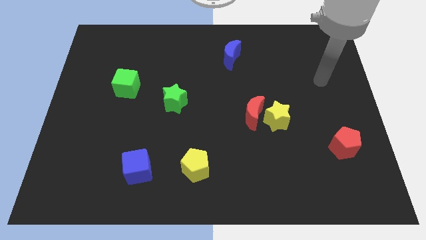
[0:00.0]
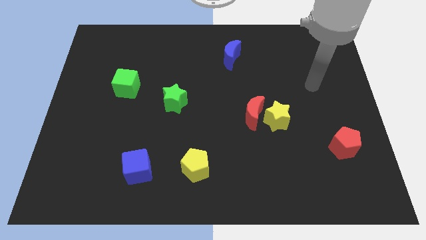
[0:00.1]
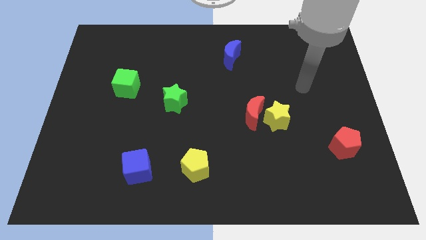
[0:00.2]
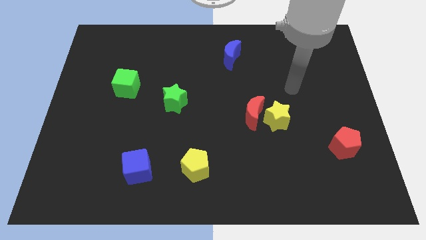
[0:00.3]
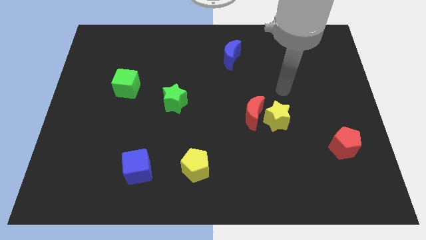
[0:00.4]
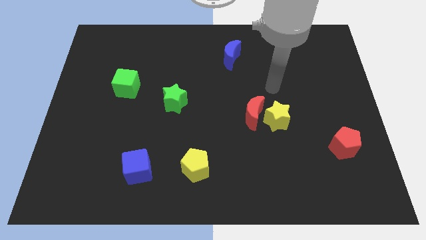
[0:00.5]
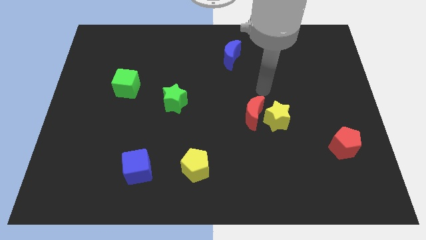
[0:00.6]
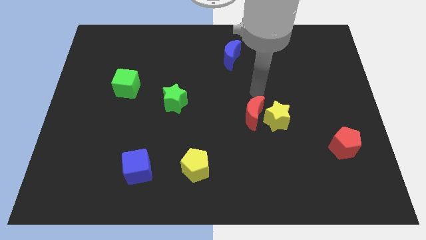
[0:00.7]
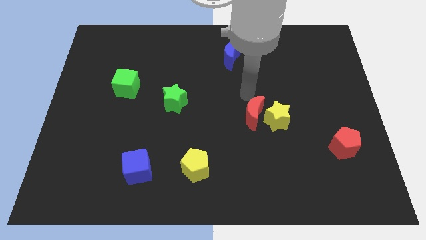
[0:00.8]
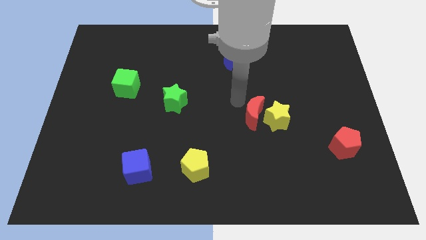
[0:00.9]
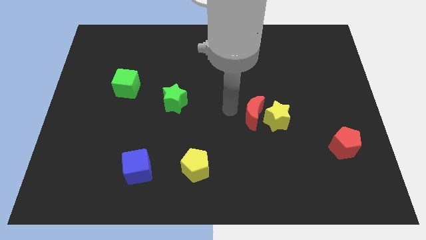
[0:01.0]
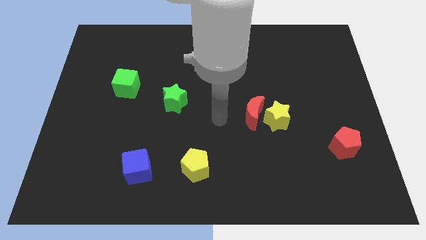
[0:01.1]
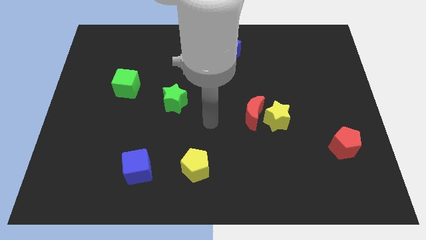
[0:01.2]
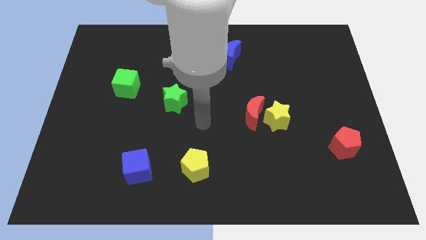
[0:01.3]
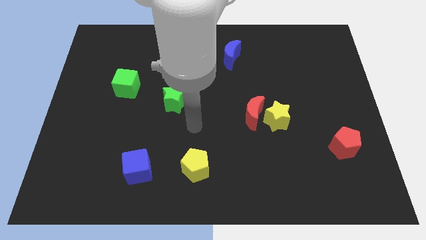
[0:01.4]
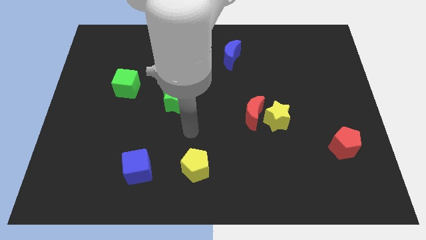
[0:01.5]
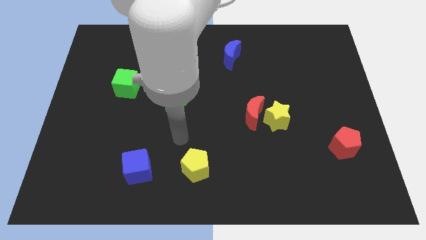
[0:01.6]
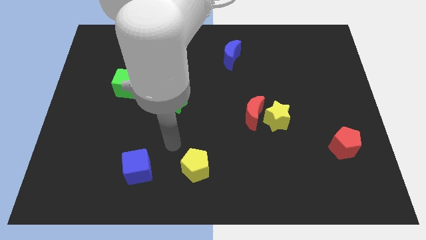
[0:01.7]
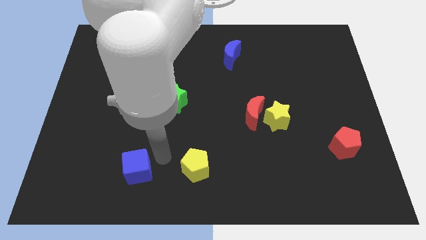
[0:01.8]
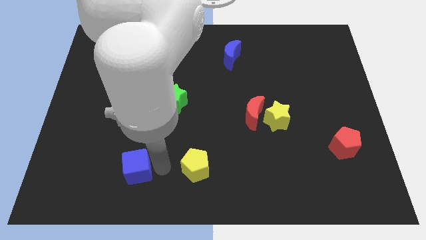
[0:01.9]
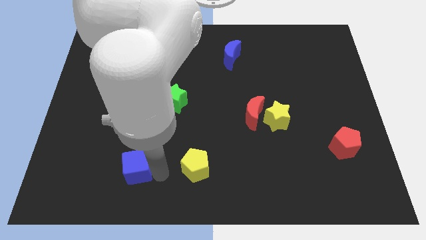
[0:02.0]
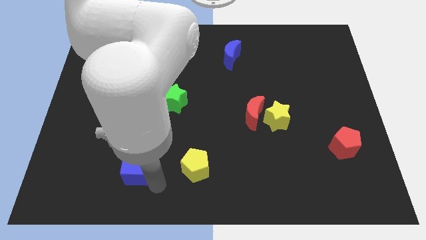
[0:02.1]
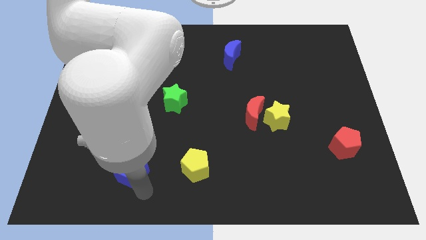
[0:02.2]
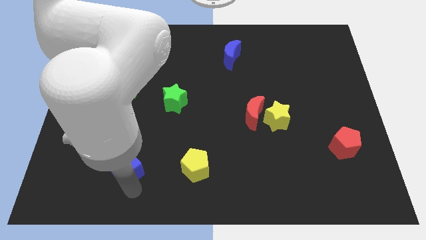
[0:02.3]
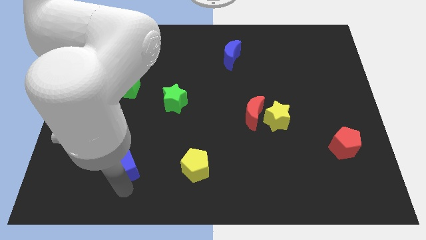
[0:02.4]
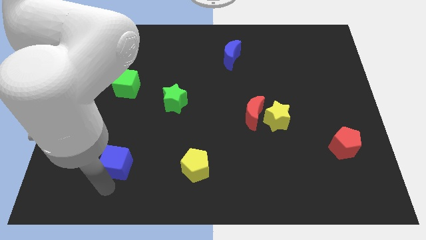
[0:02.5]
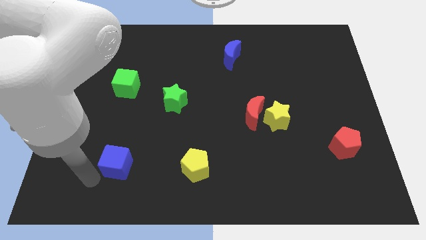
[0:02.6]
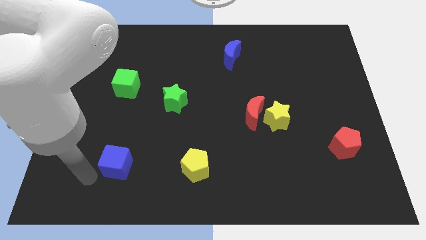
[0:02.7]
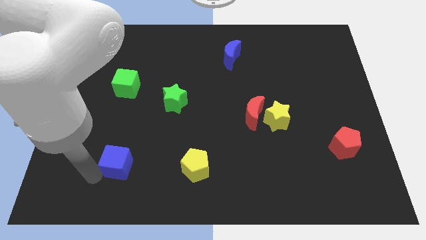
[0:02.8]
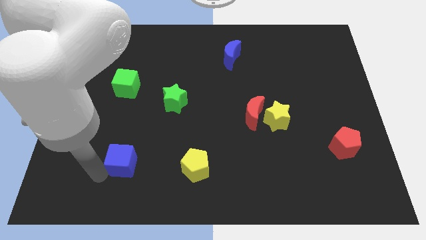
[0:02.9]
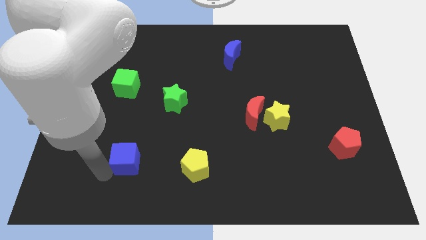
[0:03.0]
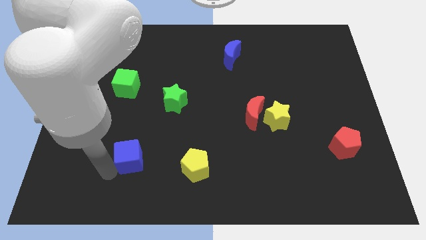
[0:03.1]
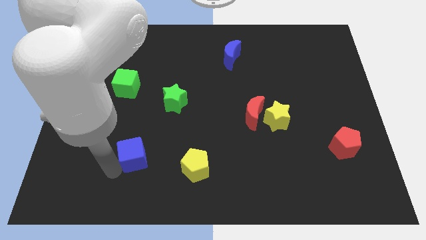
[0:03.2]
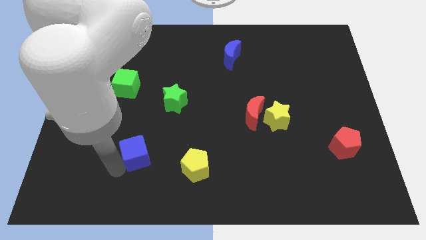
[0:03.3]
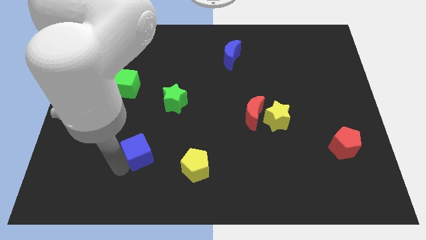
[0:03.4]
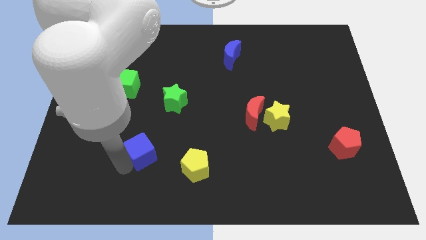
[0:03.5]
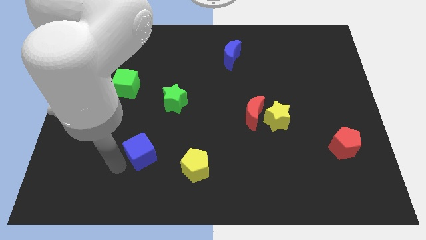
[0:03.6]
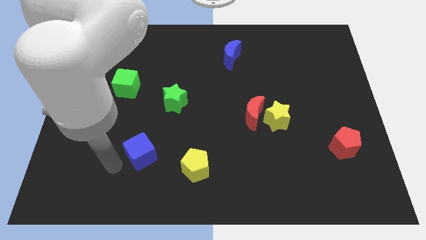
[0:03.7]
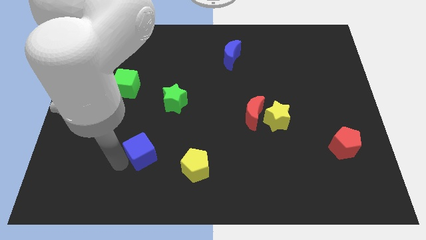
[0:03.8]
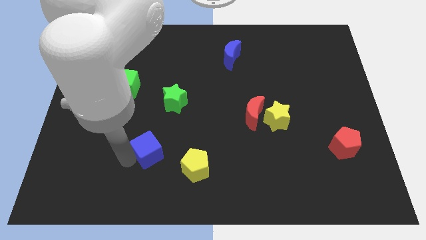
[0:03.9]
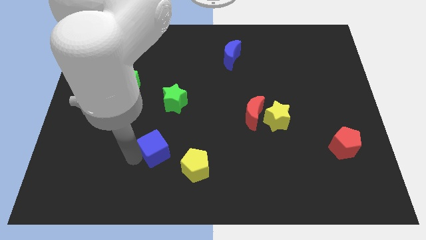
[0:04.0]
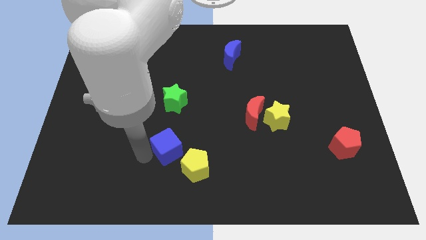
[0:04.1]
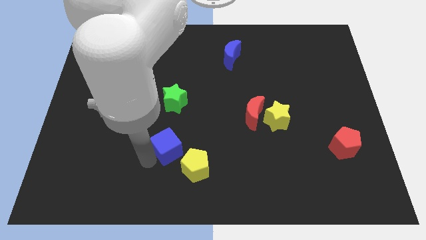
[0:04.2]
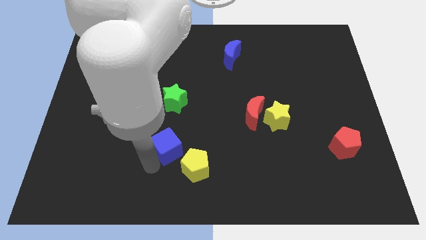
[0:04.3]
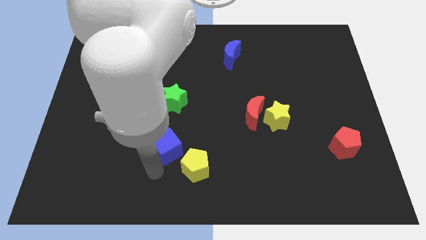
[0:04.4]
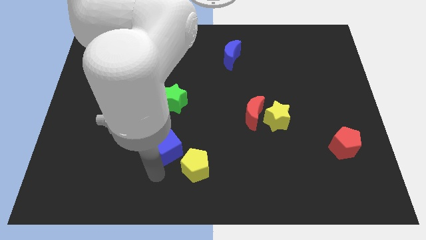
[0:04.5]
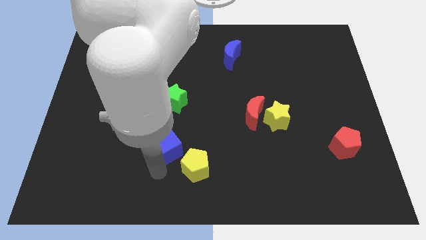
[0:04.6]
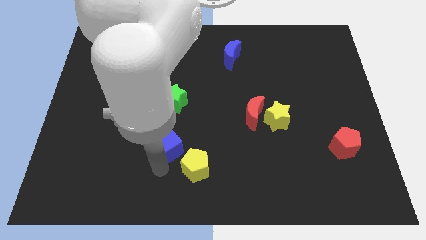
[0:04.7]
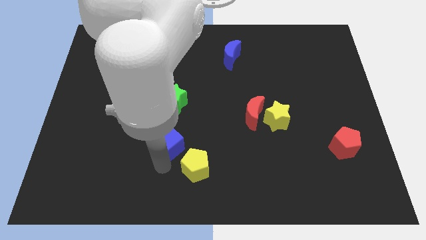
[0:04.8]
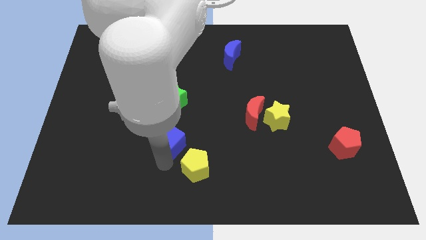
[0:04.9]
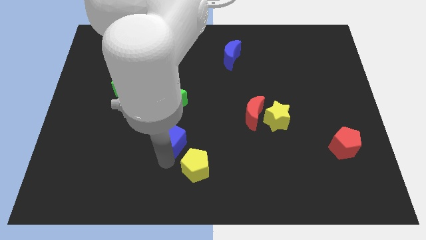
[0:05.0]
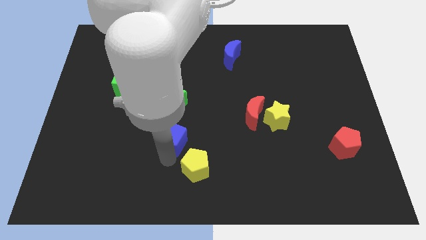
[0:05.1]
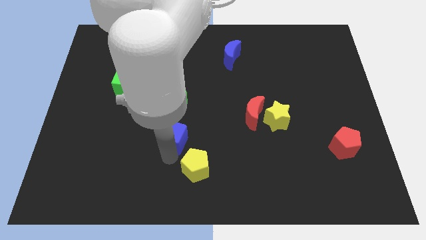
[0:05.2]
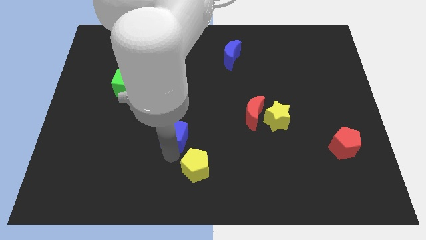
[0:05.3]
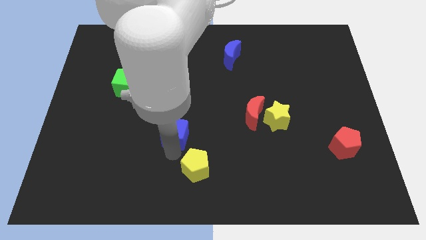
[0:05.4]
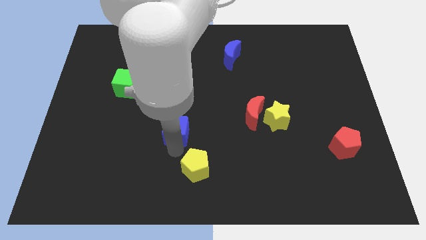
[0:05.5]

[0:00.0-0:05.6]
move the blue cube to the center of the board

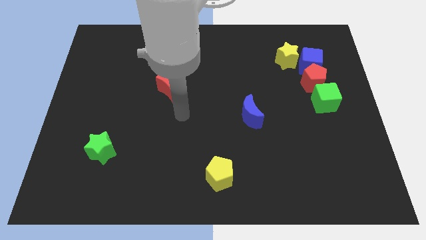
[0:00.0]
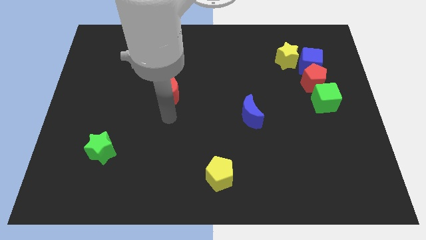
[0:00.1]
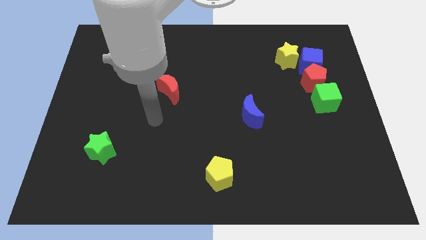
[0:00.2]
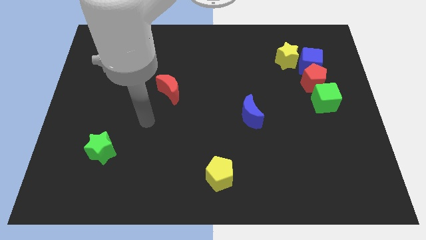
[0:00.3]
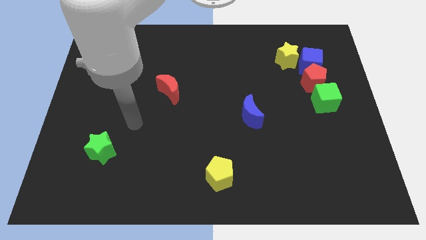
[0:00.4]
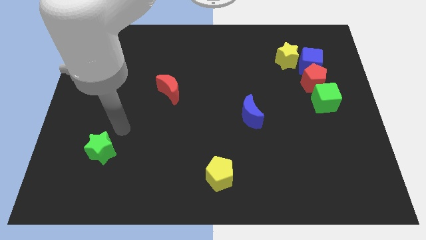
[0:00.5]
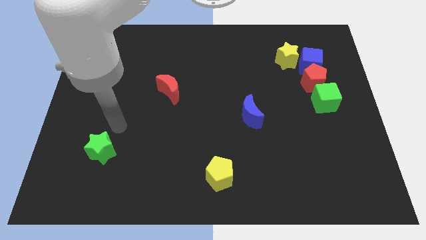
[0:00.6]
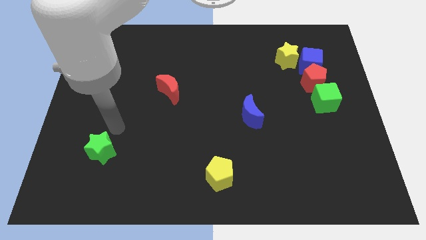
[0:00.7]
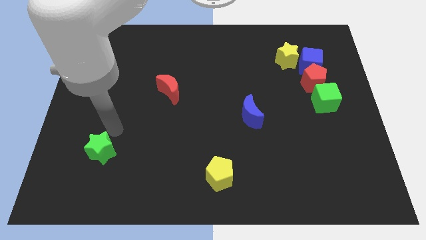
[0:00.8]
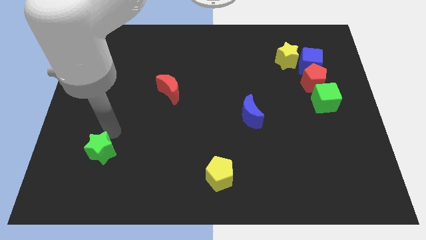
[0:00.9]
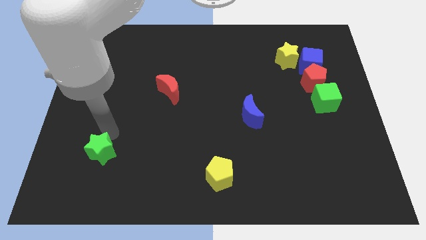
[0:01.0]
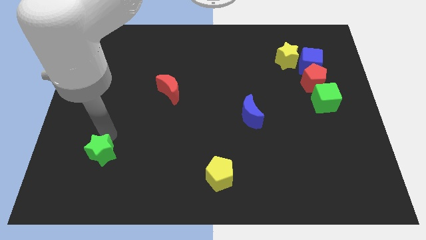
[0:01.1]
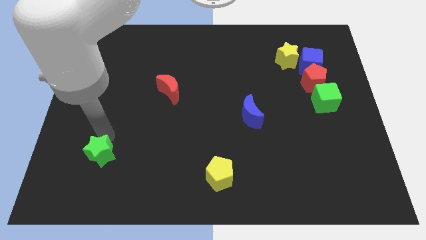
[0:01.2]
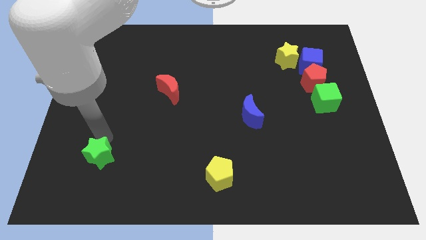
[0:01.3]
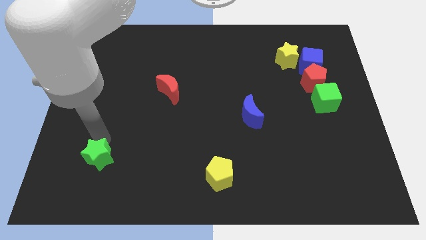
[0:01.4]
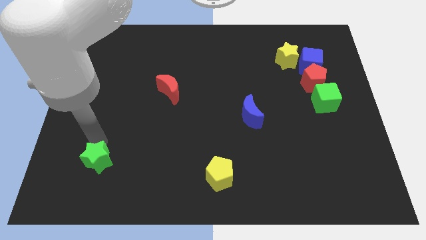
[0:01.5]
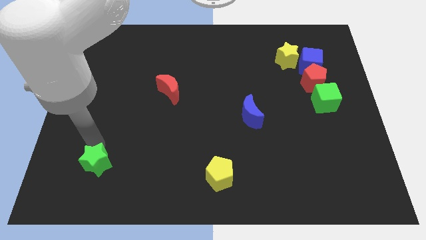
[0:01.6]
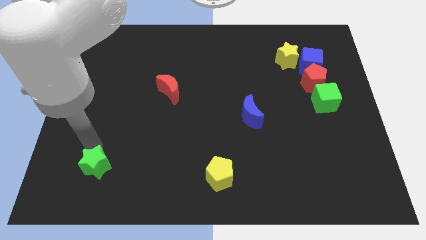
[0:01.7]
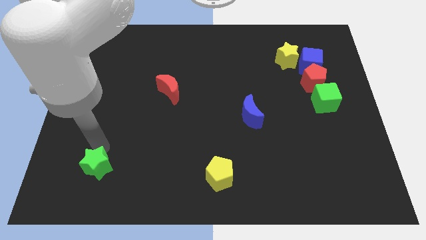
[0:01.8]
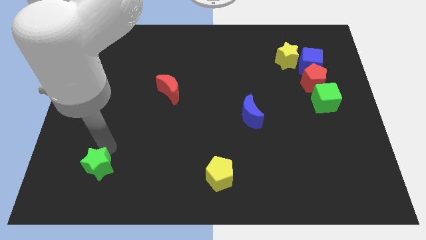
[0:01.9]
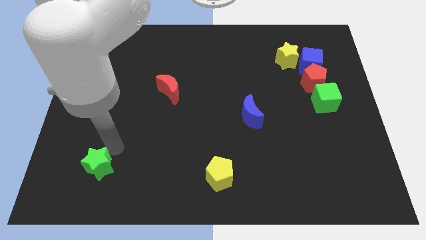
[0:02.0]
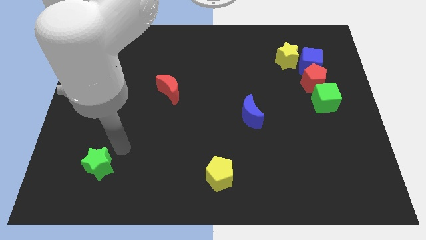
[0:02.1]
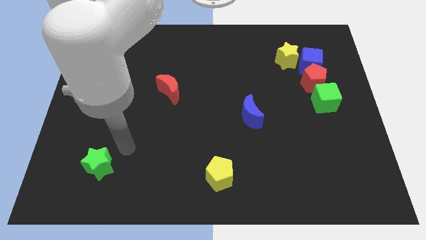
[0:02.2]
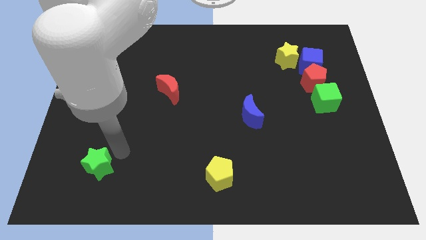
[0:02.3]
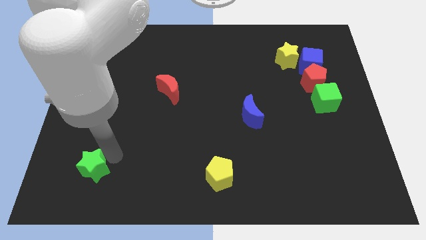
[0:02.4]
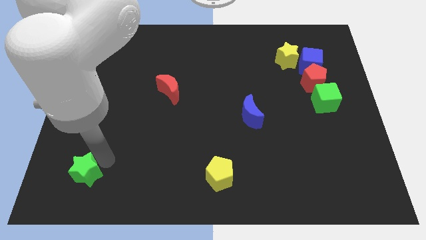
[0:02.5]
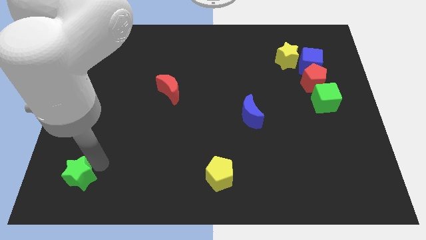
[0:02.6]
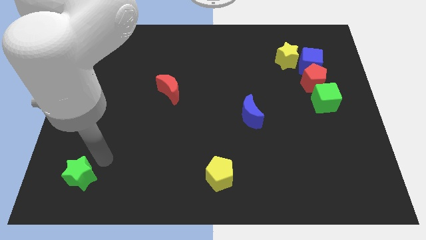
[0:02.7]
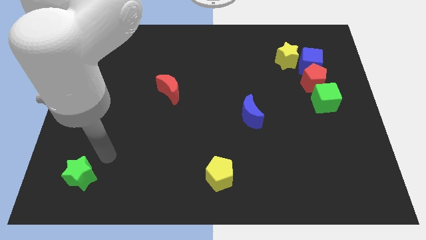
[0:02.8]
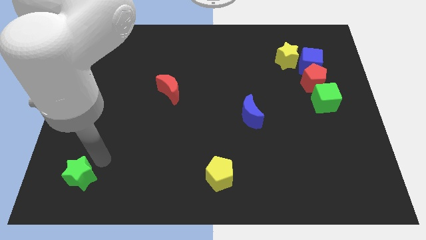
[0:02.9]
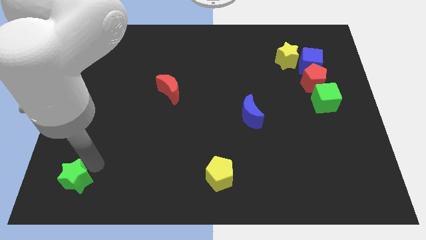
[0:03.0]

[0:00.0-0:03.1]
put the green star to the bottom left
